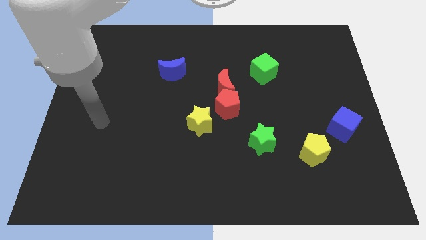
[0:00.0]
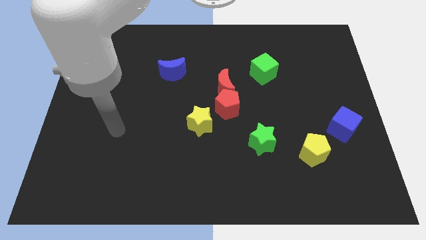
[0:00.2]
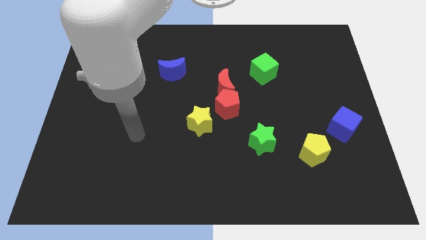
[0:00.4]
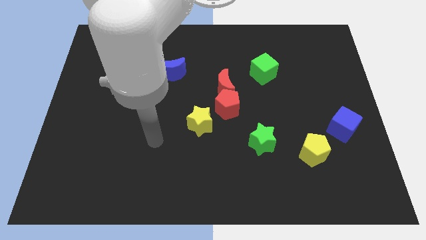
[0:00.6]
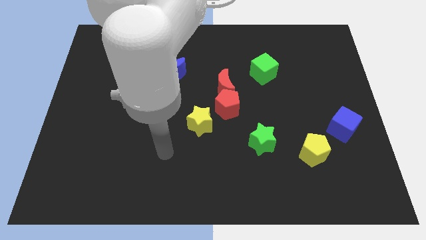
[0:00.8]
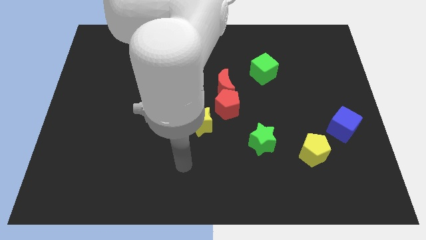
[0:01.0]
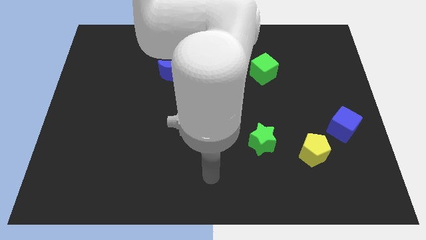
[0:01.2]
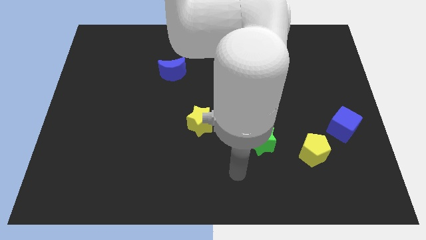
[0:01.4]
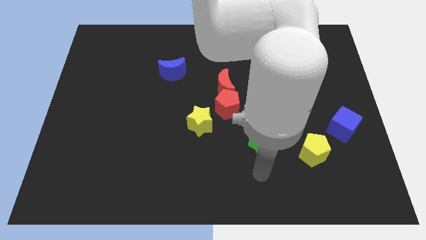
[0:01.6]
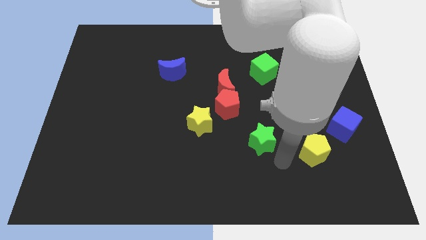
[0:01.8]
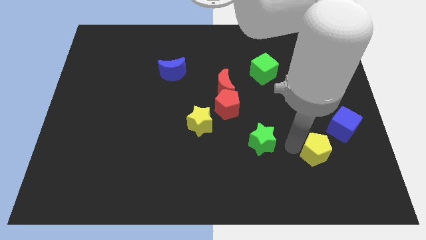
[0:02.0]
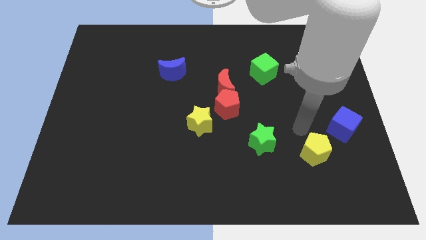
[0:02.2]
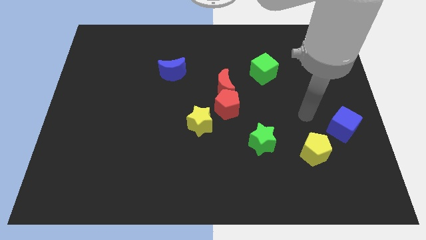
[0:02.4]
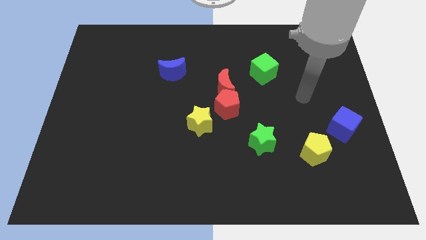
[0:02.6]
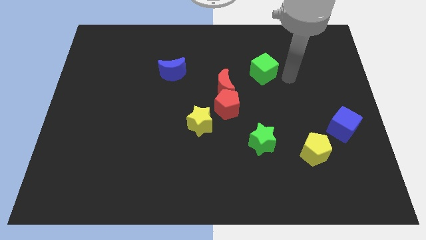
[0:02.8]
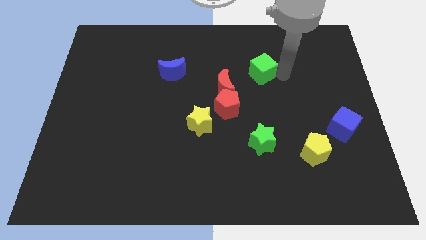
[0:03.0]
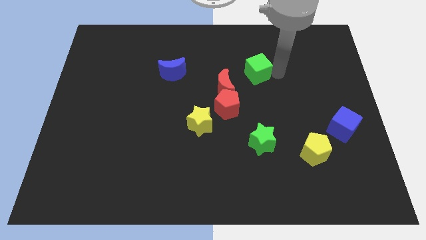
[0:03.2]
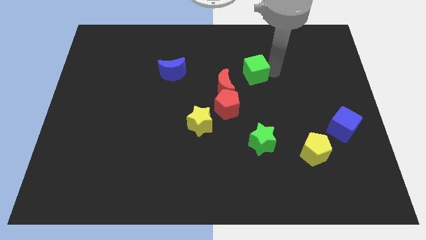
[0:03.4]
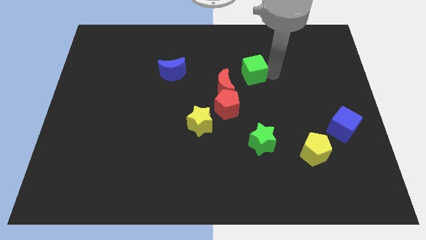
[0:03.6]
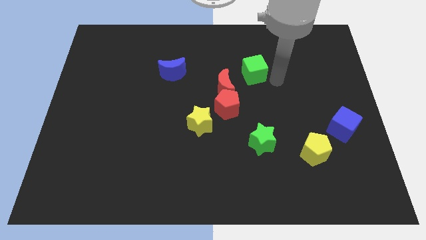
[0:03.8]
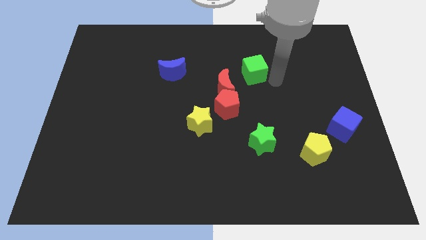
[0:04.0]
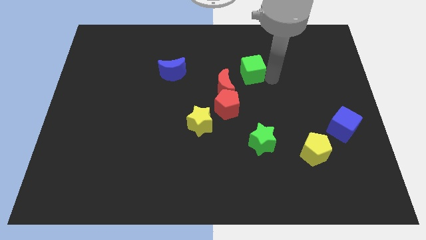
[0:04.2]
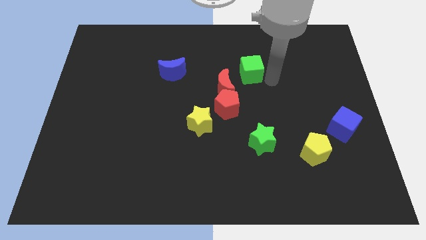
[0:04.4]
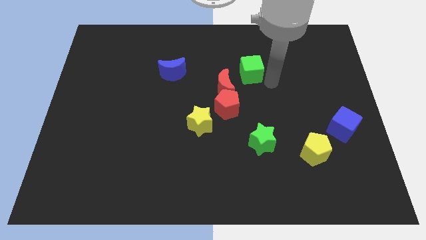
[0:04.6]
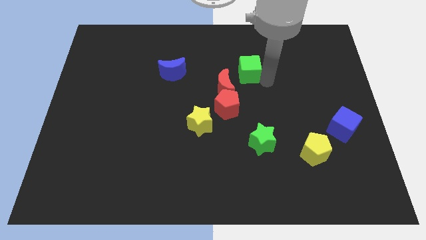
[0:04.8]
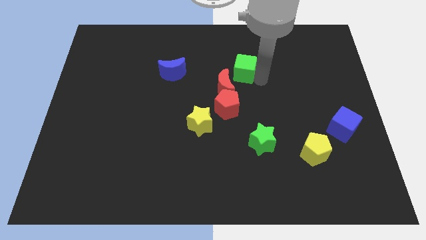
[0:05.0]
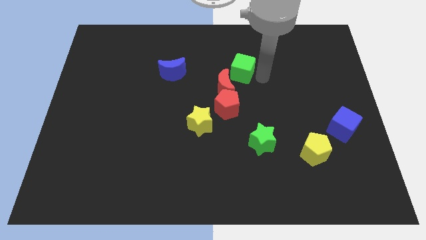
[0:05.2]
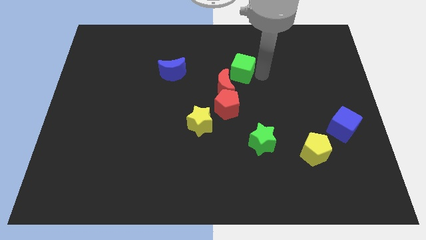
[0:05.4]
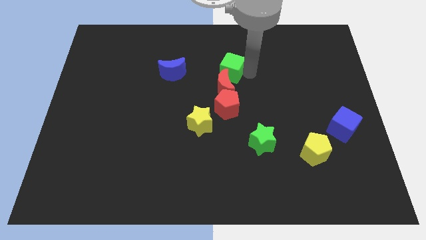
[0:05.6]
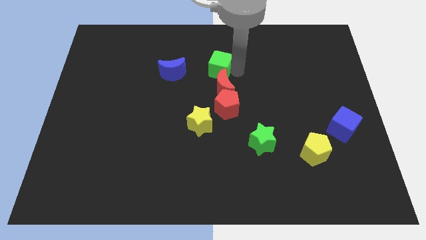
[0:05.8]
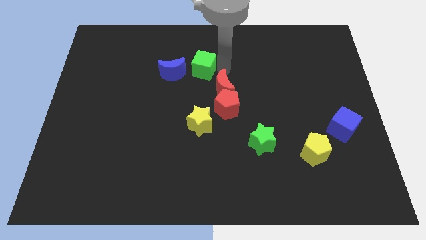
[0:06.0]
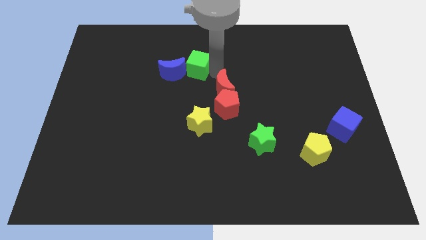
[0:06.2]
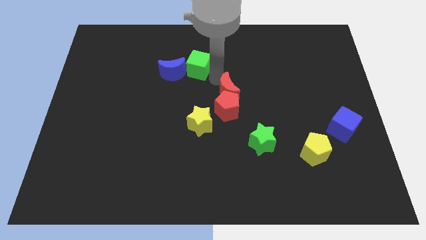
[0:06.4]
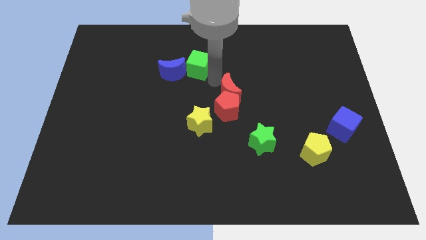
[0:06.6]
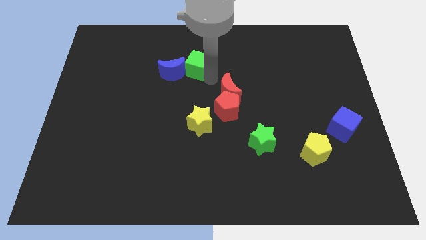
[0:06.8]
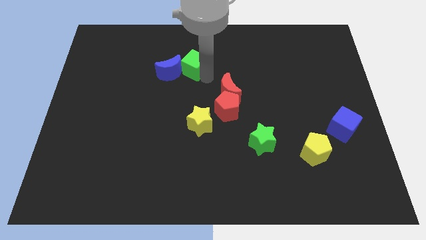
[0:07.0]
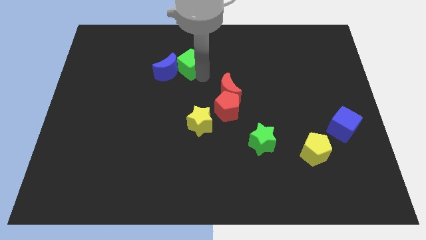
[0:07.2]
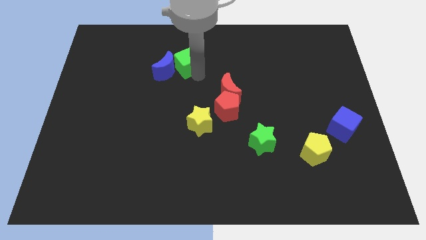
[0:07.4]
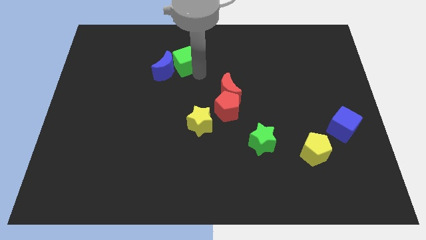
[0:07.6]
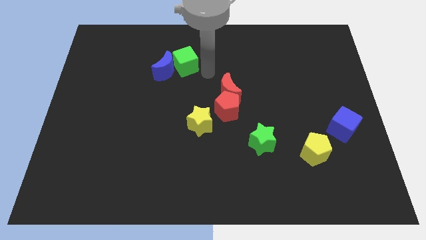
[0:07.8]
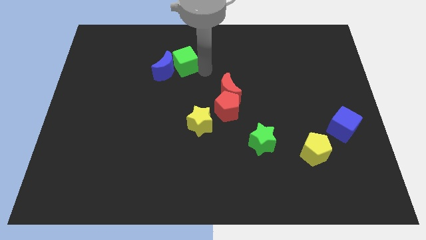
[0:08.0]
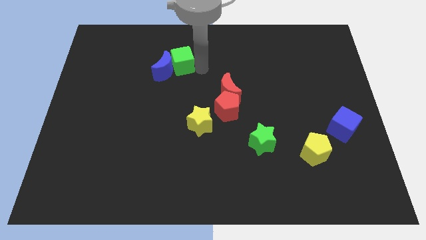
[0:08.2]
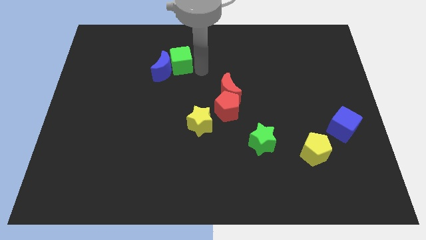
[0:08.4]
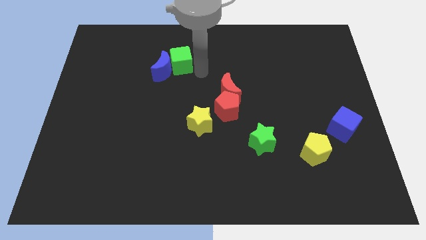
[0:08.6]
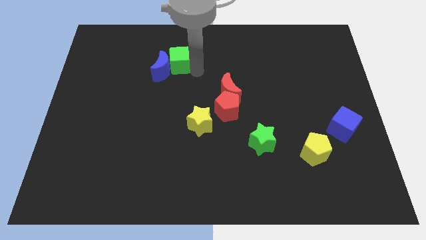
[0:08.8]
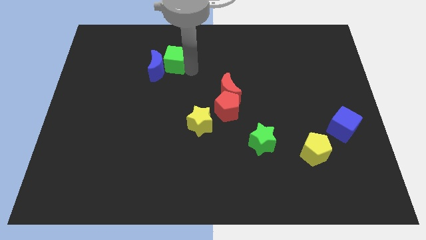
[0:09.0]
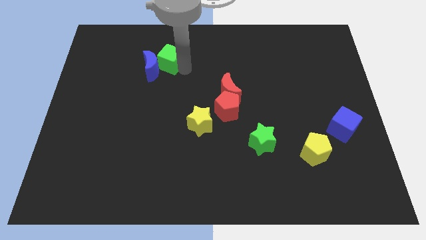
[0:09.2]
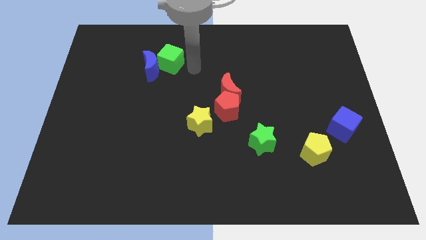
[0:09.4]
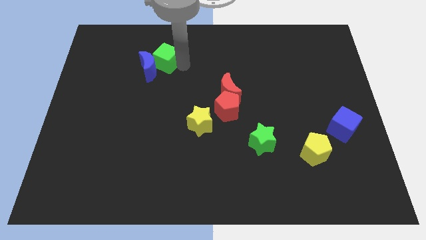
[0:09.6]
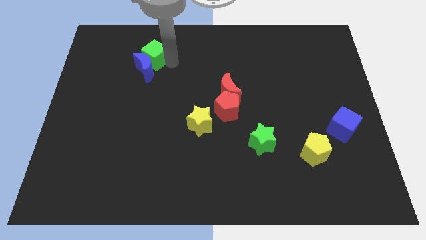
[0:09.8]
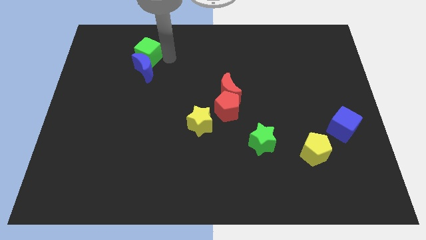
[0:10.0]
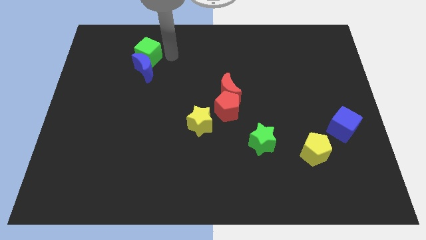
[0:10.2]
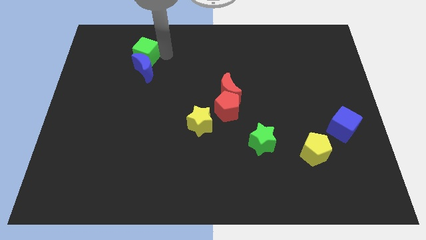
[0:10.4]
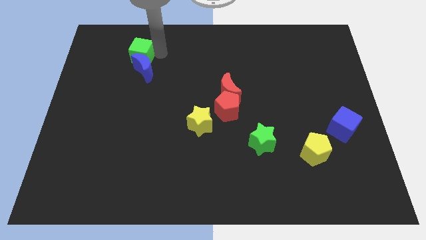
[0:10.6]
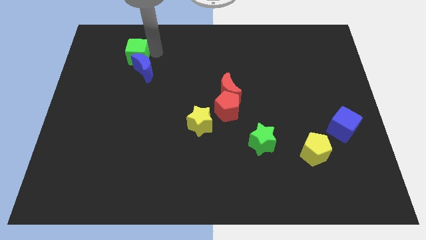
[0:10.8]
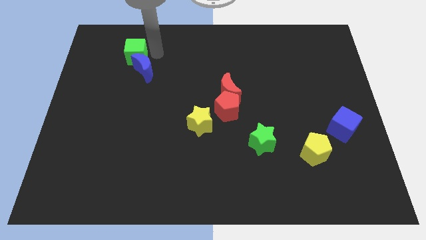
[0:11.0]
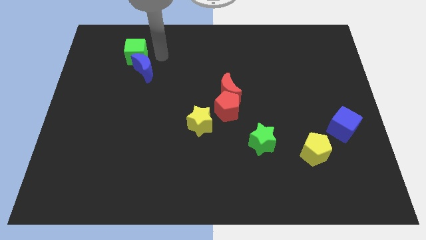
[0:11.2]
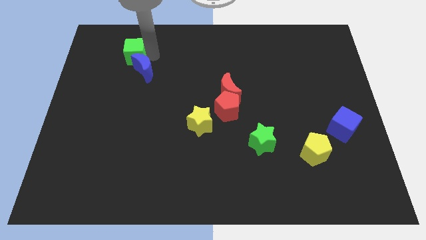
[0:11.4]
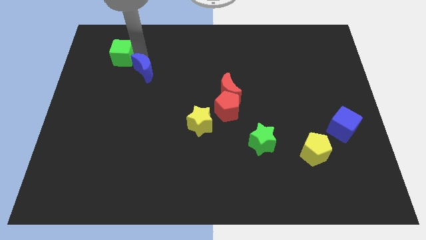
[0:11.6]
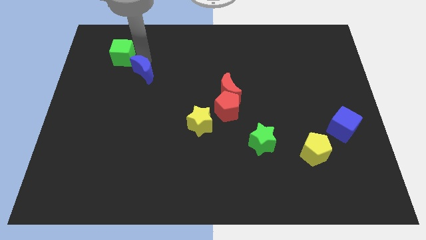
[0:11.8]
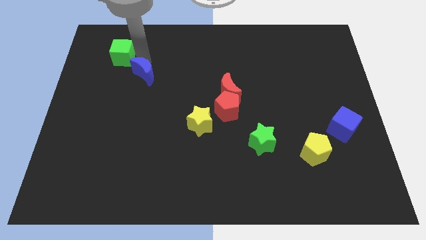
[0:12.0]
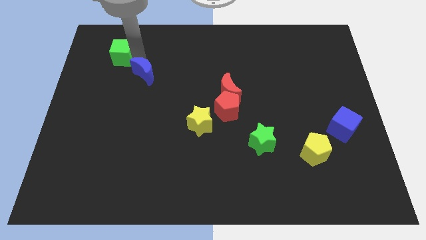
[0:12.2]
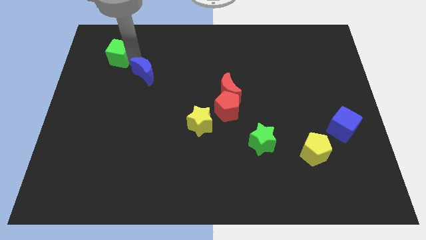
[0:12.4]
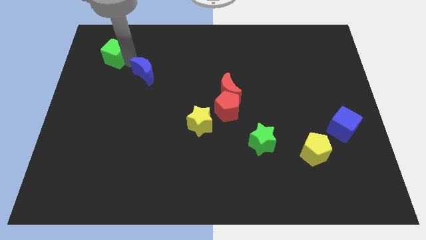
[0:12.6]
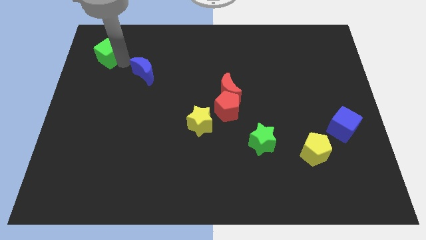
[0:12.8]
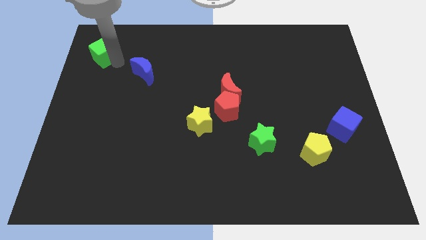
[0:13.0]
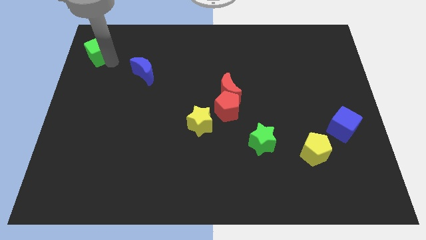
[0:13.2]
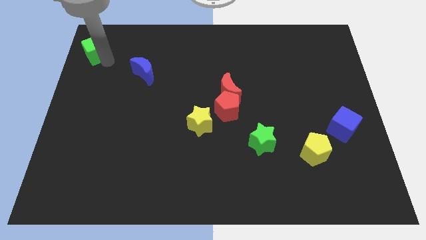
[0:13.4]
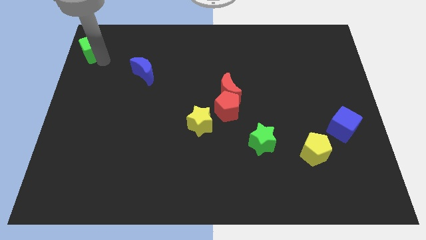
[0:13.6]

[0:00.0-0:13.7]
move the green cube to the top left of the board
